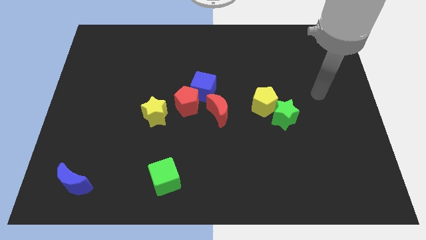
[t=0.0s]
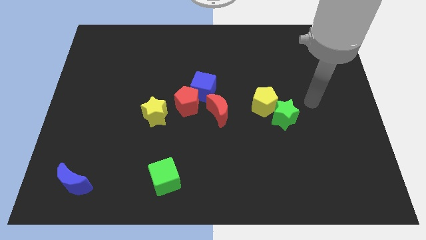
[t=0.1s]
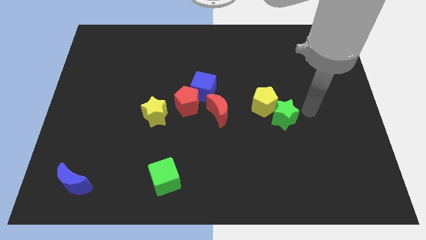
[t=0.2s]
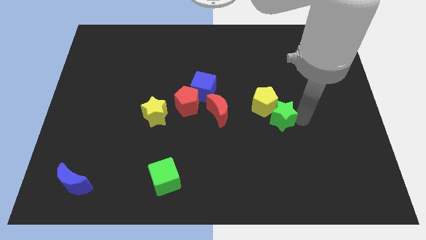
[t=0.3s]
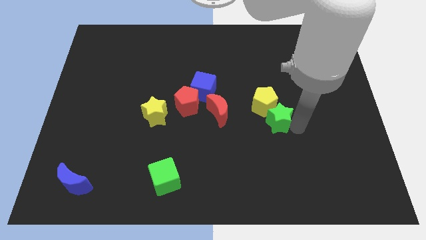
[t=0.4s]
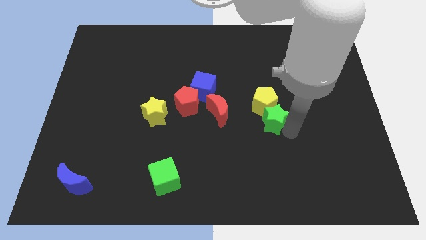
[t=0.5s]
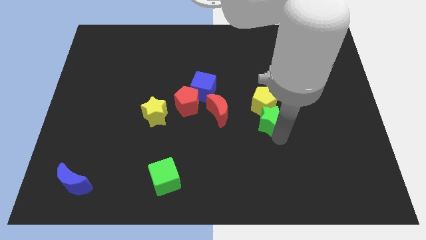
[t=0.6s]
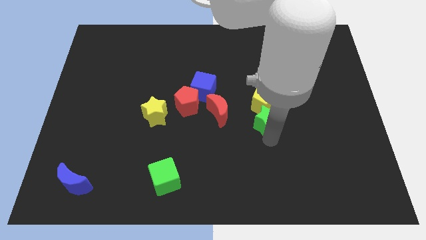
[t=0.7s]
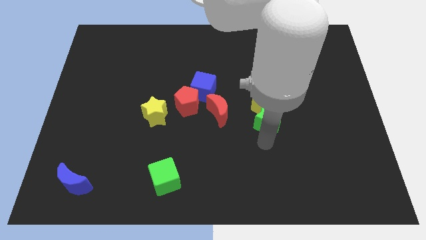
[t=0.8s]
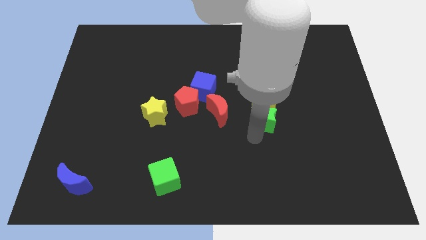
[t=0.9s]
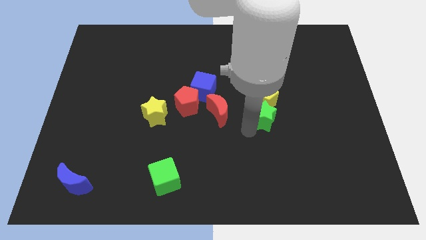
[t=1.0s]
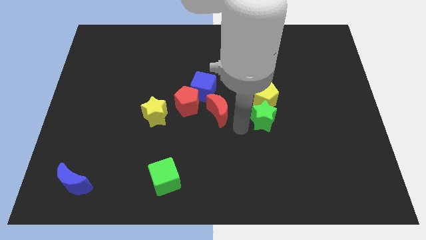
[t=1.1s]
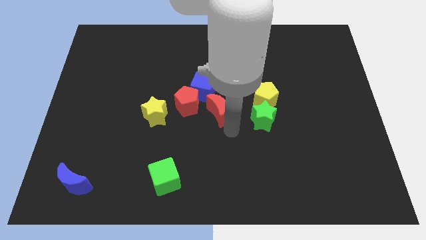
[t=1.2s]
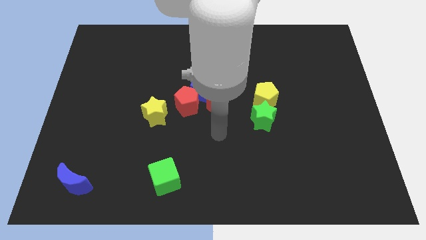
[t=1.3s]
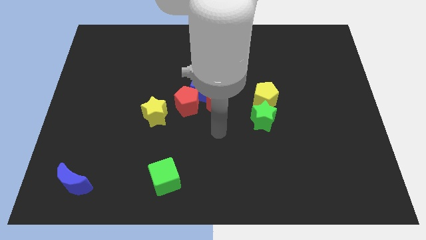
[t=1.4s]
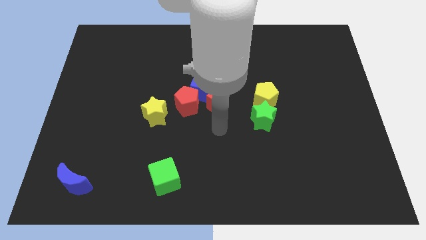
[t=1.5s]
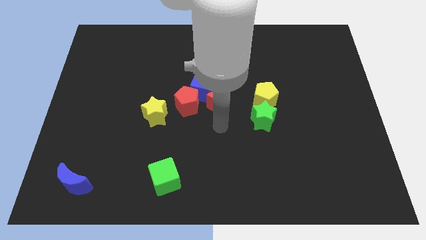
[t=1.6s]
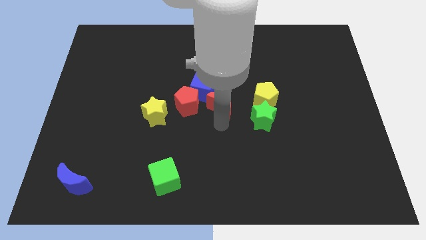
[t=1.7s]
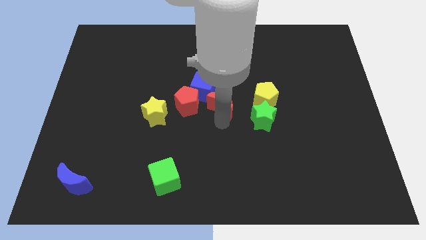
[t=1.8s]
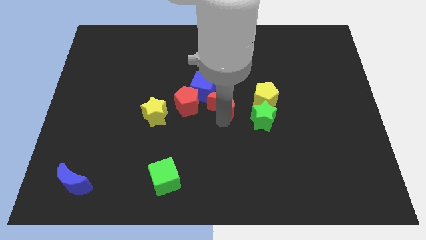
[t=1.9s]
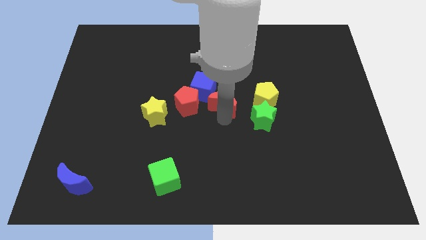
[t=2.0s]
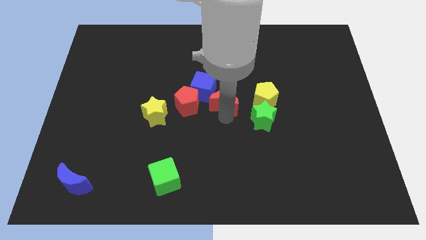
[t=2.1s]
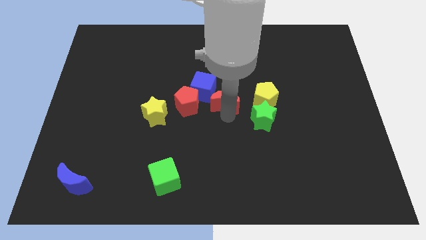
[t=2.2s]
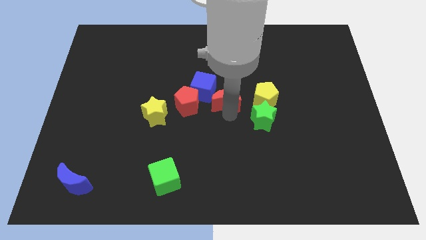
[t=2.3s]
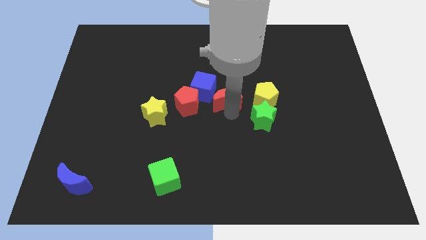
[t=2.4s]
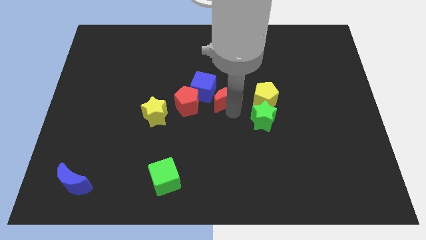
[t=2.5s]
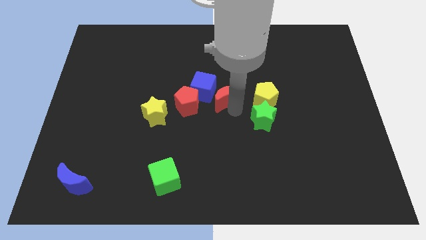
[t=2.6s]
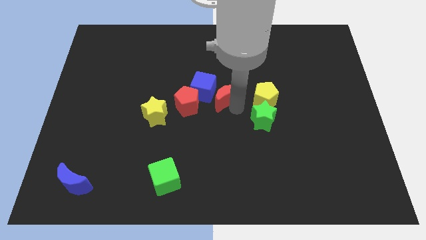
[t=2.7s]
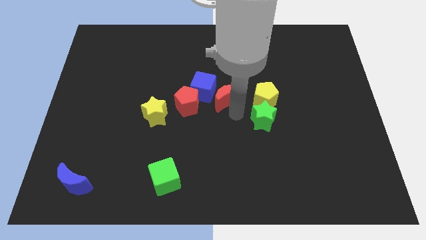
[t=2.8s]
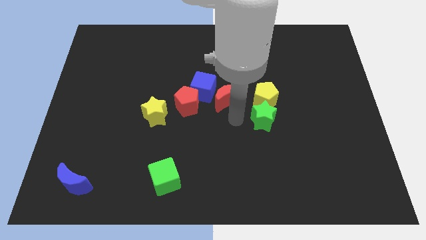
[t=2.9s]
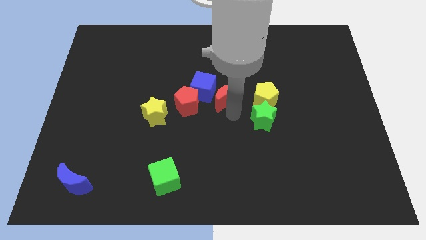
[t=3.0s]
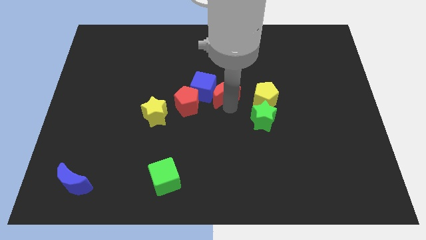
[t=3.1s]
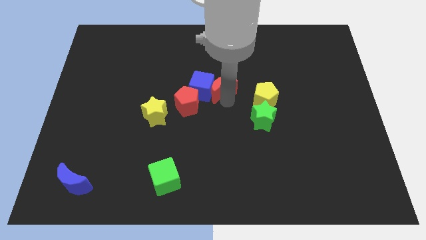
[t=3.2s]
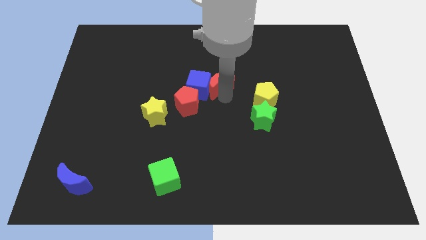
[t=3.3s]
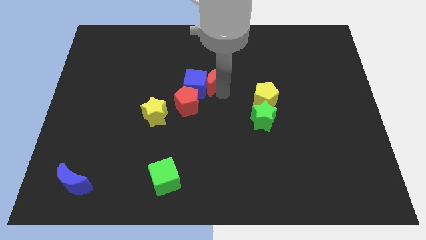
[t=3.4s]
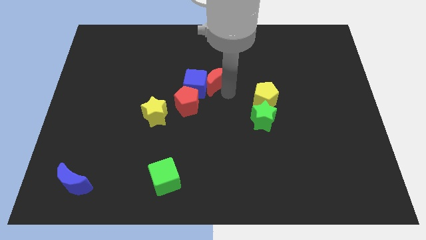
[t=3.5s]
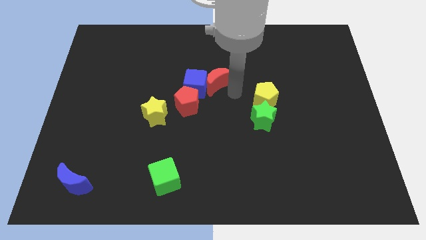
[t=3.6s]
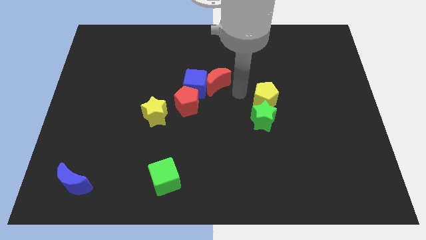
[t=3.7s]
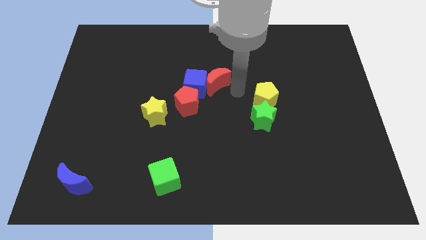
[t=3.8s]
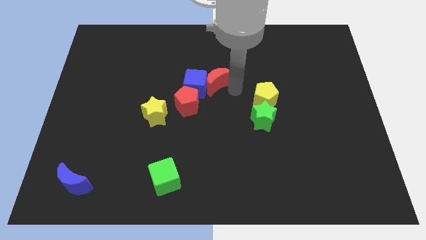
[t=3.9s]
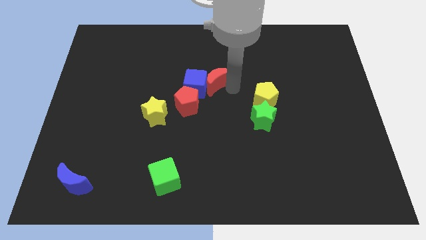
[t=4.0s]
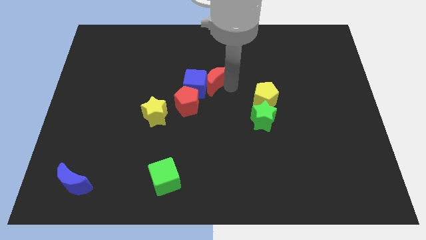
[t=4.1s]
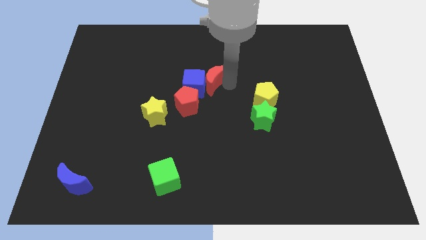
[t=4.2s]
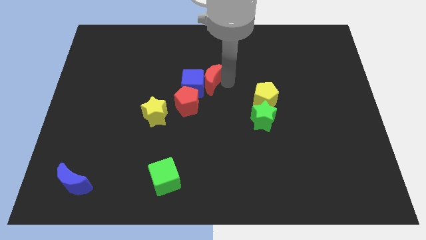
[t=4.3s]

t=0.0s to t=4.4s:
push the red moon a little up and to the left

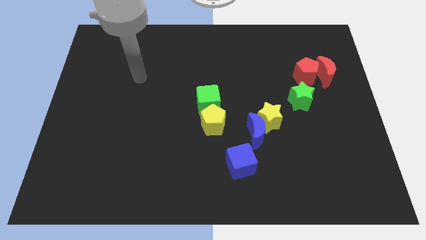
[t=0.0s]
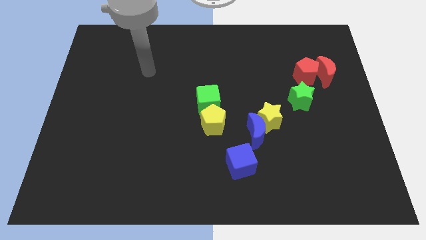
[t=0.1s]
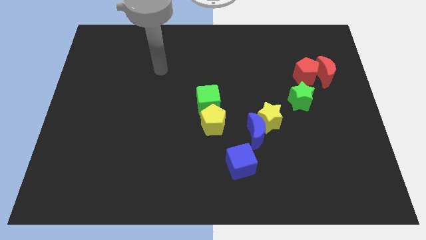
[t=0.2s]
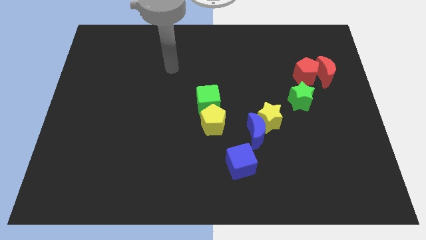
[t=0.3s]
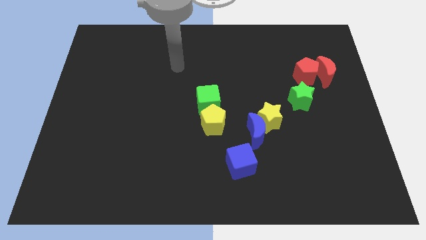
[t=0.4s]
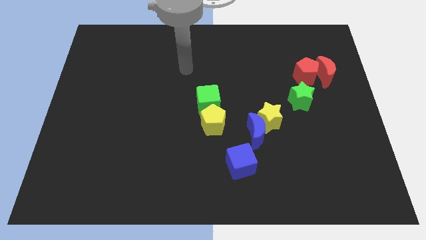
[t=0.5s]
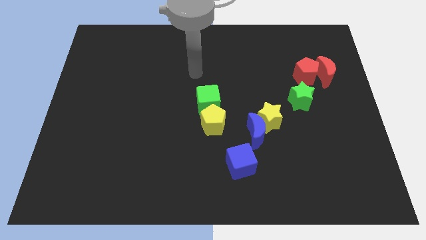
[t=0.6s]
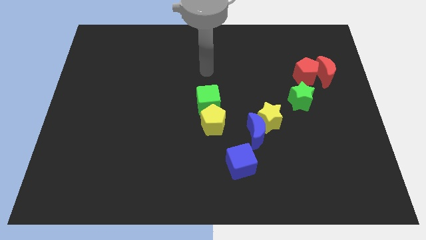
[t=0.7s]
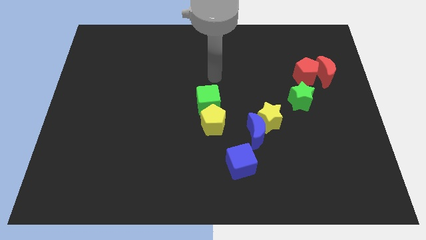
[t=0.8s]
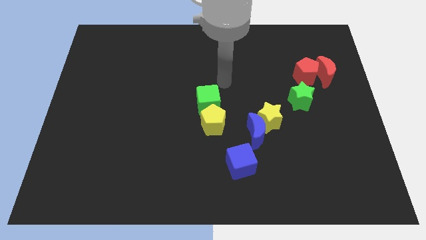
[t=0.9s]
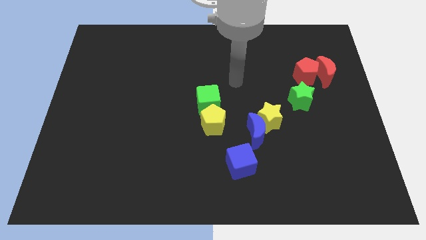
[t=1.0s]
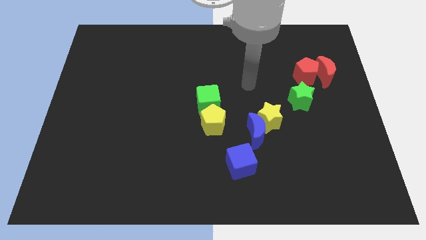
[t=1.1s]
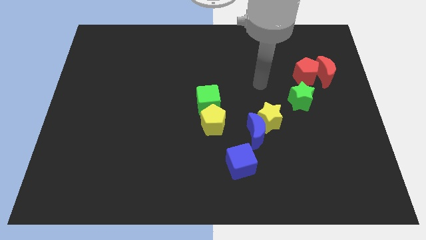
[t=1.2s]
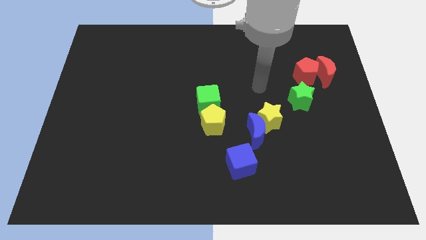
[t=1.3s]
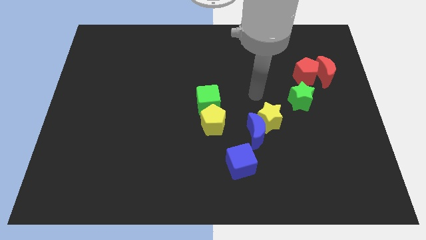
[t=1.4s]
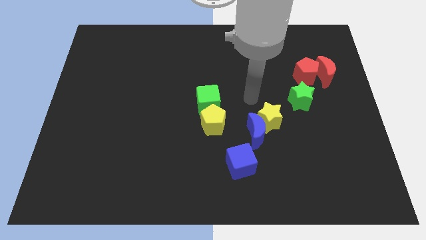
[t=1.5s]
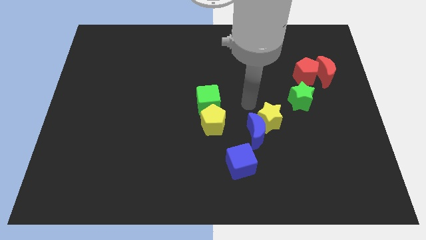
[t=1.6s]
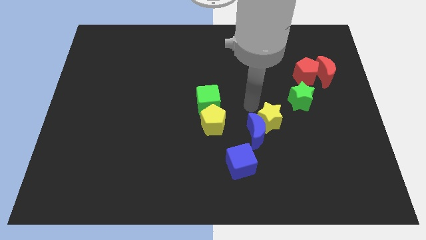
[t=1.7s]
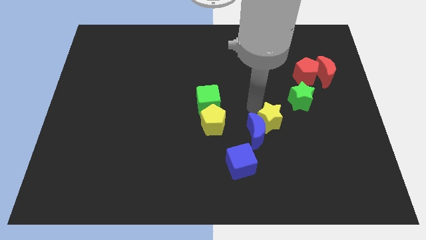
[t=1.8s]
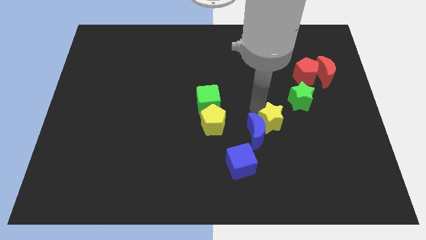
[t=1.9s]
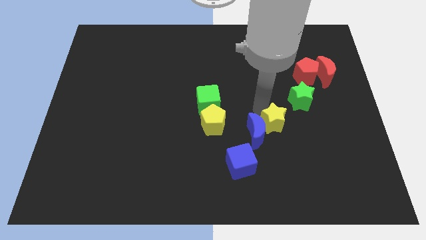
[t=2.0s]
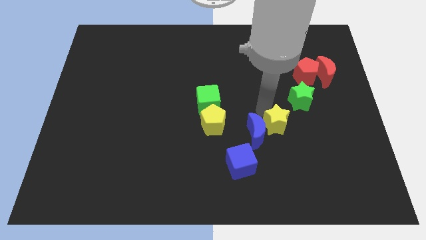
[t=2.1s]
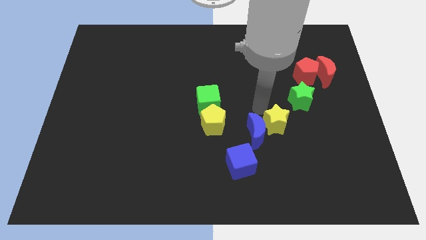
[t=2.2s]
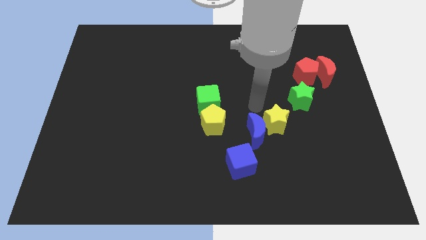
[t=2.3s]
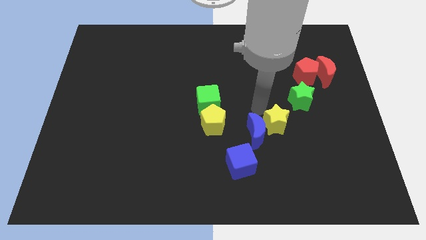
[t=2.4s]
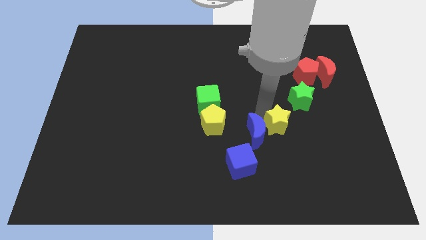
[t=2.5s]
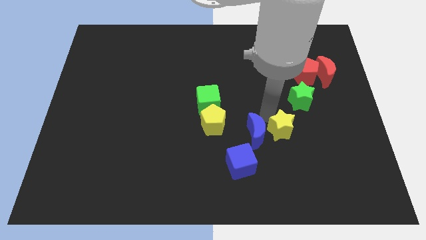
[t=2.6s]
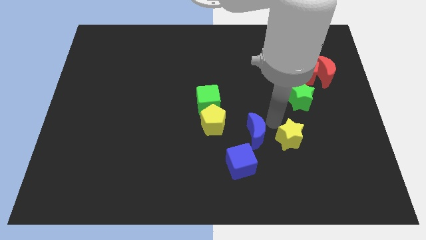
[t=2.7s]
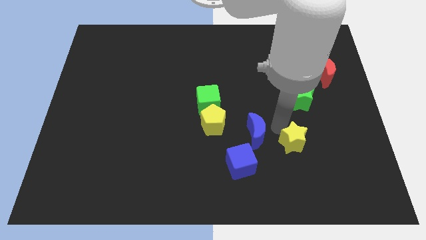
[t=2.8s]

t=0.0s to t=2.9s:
slightly push the yellow star downwards and then right

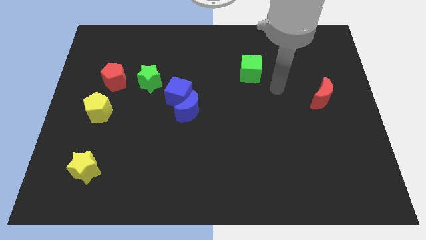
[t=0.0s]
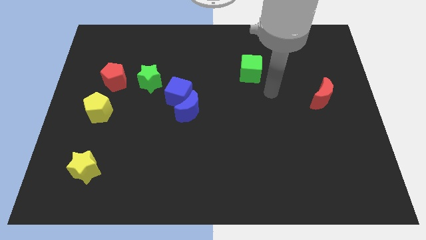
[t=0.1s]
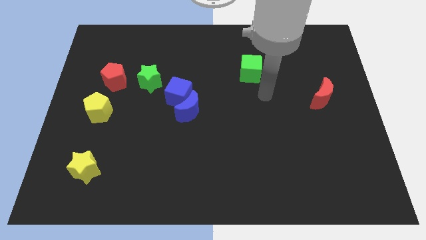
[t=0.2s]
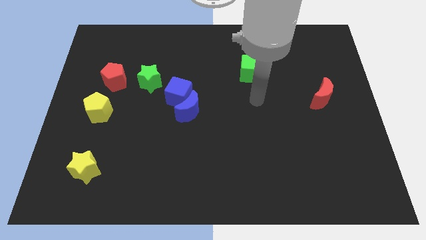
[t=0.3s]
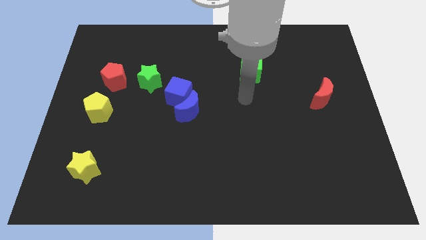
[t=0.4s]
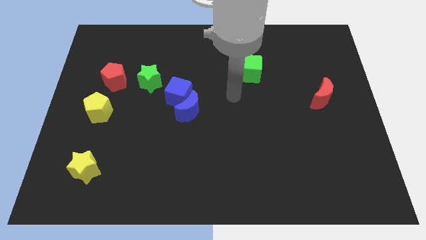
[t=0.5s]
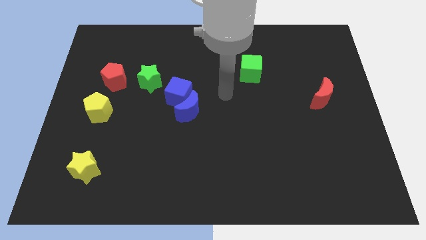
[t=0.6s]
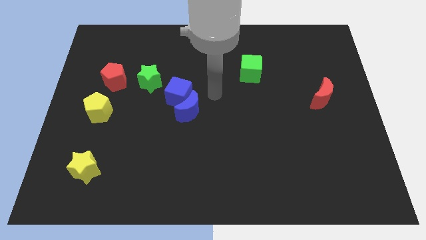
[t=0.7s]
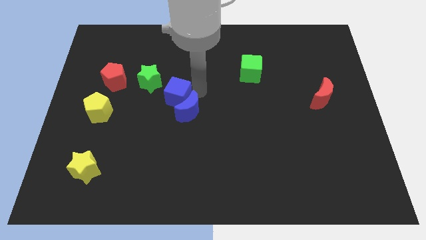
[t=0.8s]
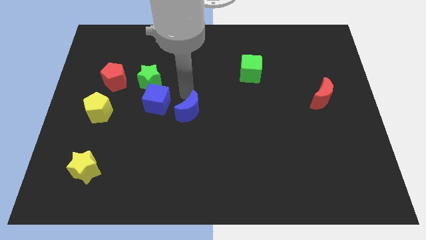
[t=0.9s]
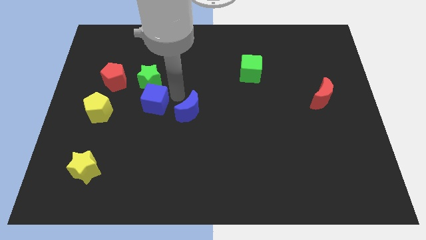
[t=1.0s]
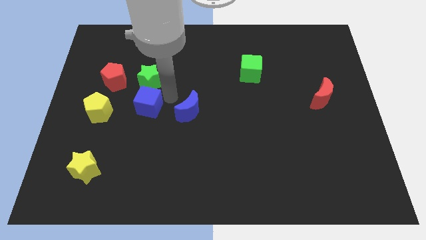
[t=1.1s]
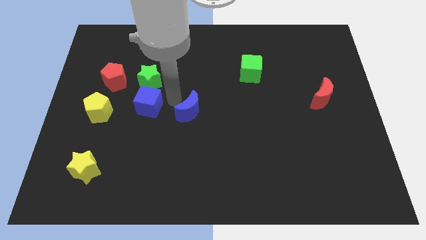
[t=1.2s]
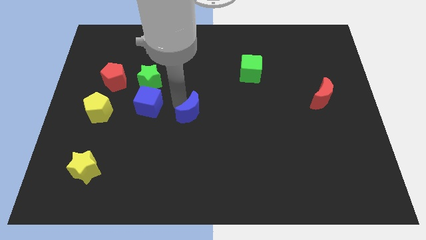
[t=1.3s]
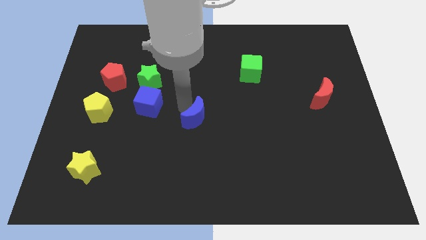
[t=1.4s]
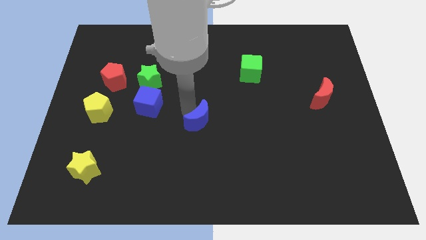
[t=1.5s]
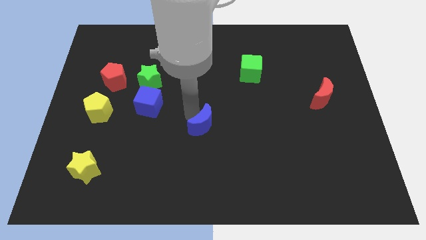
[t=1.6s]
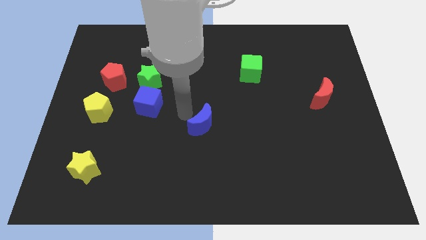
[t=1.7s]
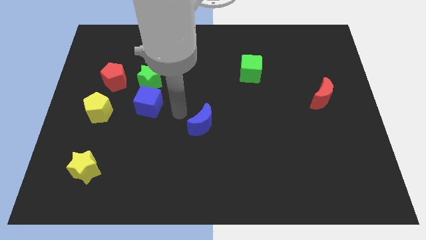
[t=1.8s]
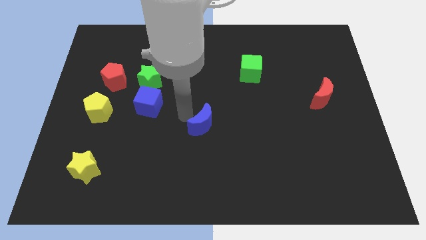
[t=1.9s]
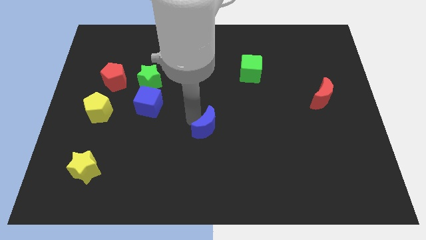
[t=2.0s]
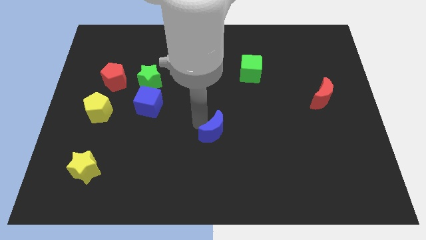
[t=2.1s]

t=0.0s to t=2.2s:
slide the blue moon down and then right a little bit
